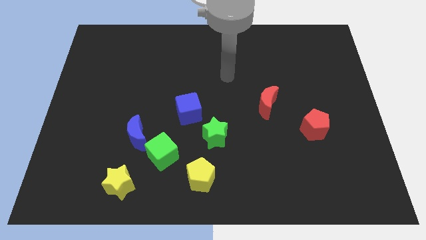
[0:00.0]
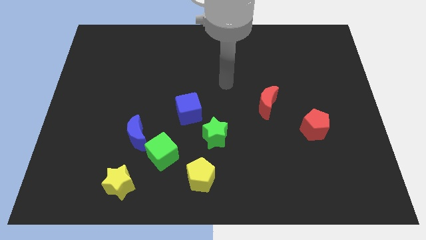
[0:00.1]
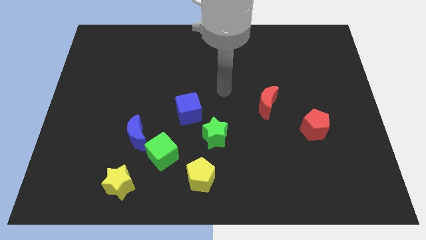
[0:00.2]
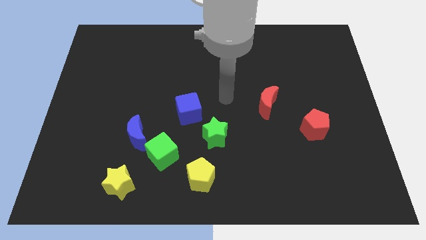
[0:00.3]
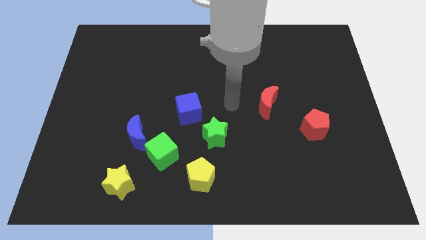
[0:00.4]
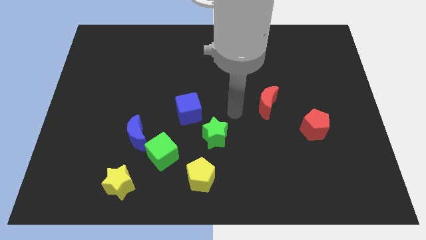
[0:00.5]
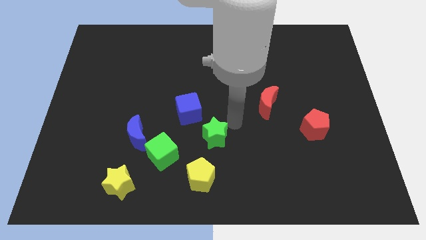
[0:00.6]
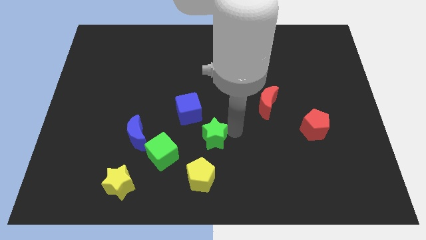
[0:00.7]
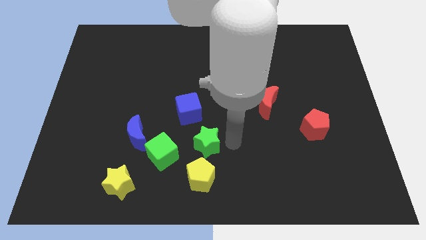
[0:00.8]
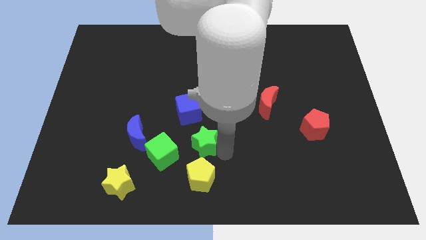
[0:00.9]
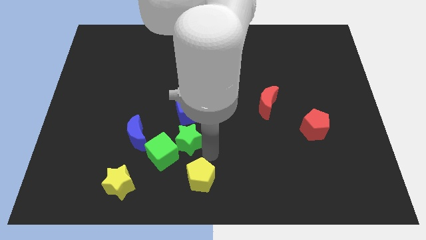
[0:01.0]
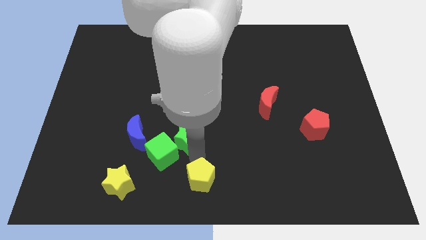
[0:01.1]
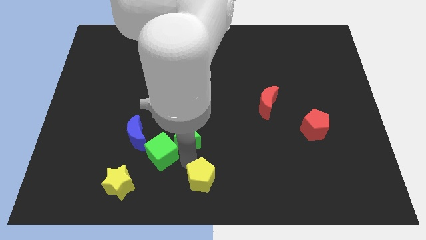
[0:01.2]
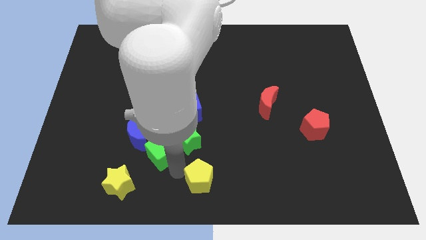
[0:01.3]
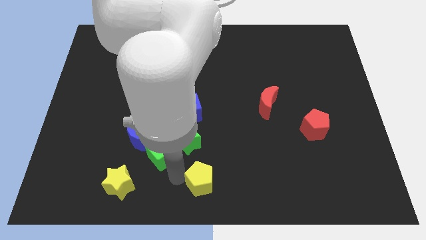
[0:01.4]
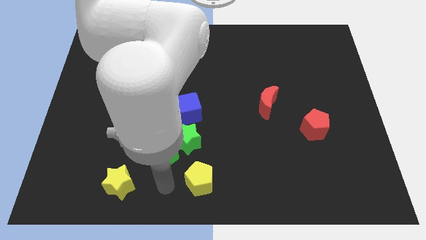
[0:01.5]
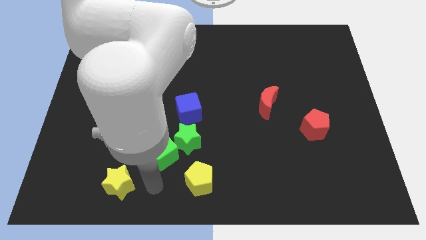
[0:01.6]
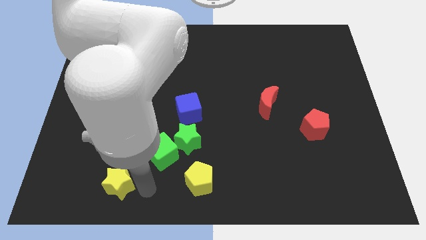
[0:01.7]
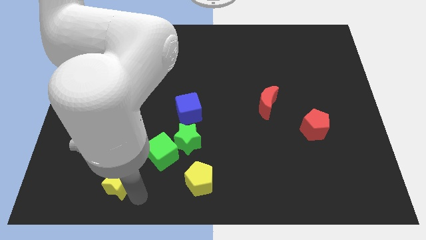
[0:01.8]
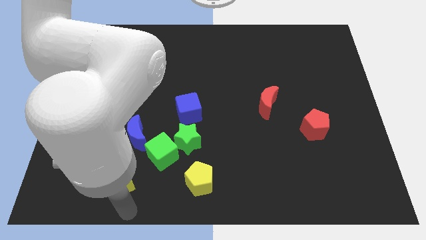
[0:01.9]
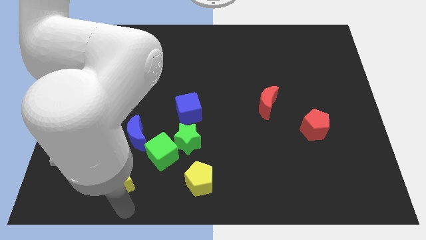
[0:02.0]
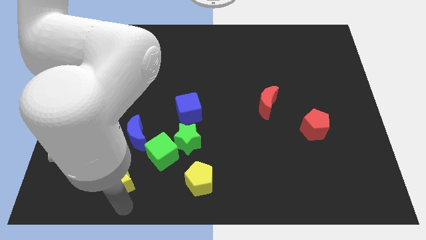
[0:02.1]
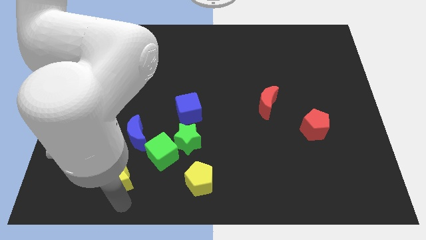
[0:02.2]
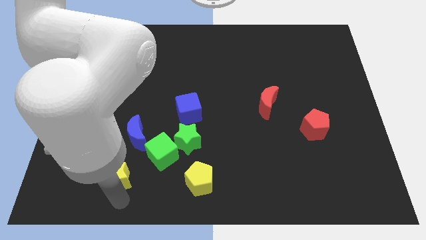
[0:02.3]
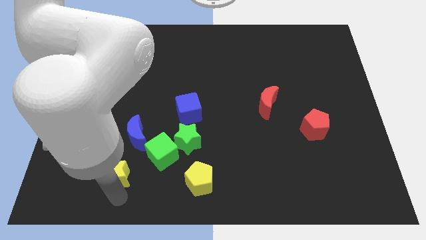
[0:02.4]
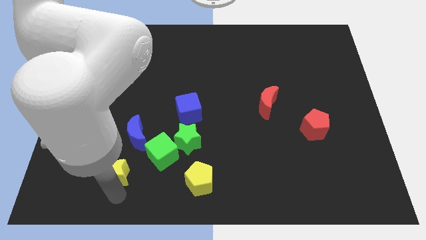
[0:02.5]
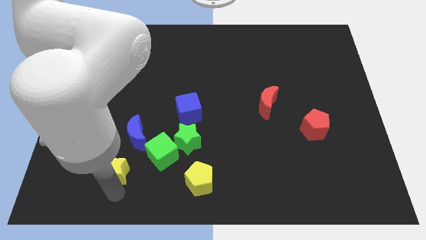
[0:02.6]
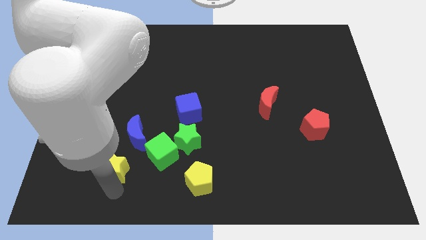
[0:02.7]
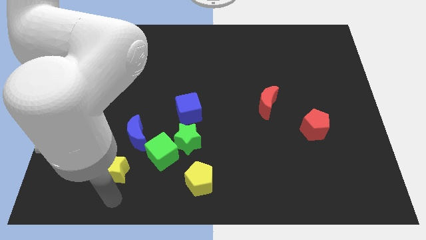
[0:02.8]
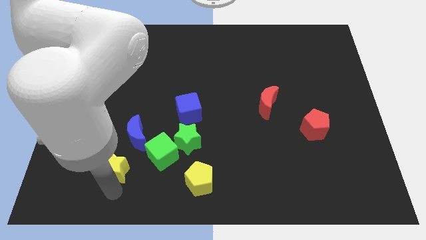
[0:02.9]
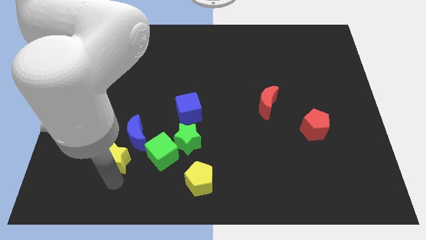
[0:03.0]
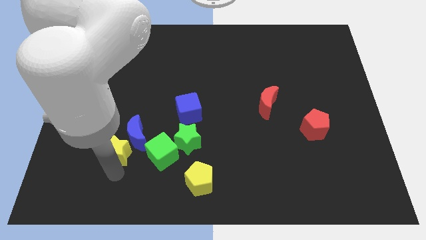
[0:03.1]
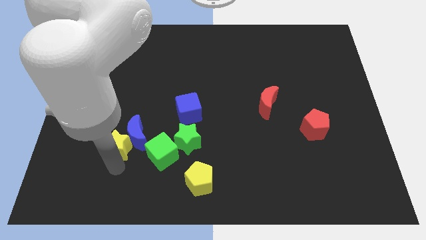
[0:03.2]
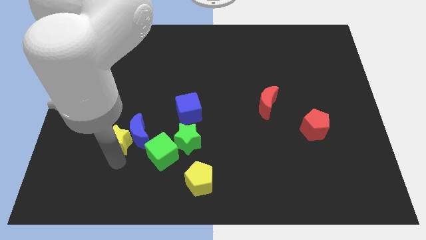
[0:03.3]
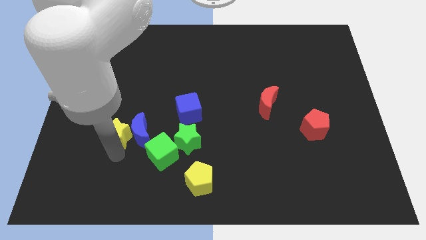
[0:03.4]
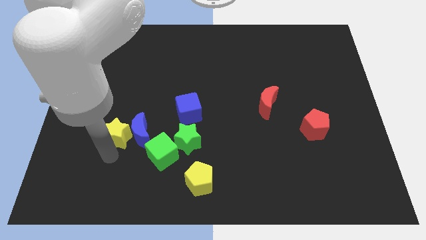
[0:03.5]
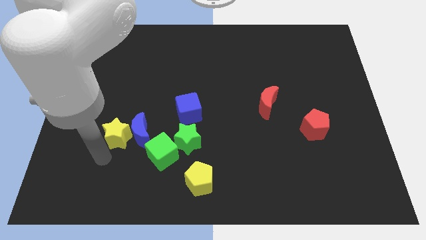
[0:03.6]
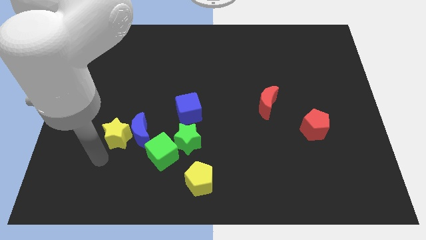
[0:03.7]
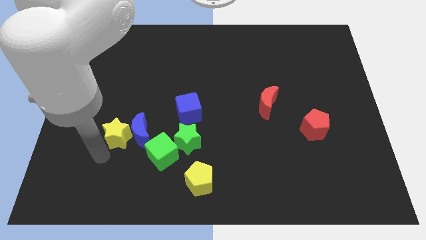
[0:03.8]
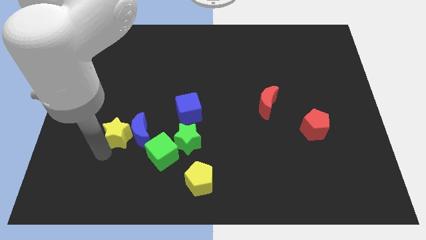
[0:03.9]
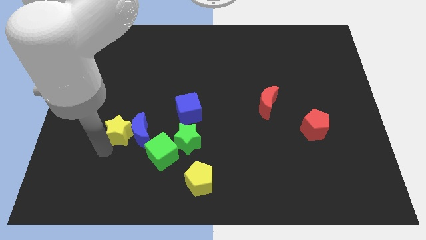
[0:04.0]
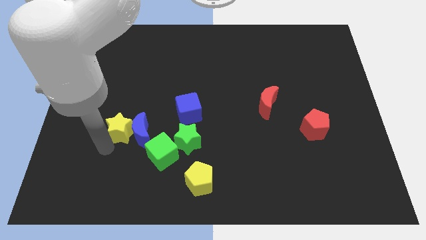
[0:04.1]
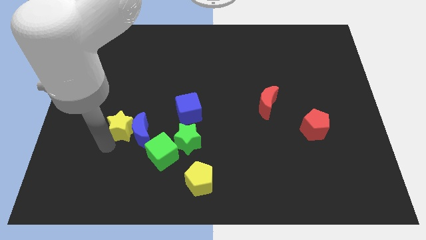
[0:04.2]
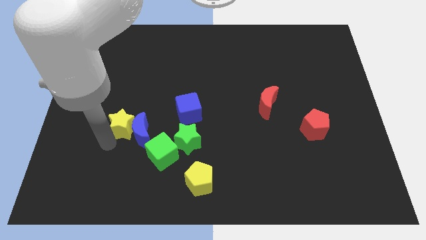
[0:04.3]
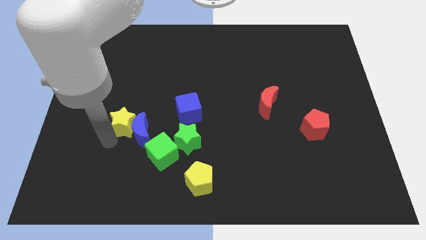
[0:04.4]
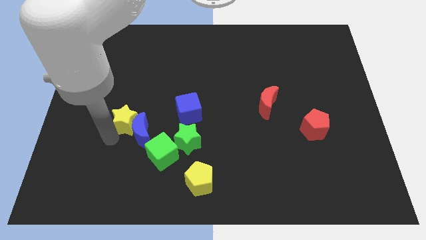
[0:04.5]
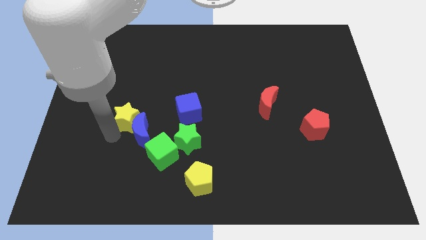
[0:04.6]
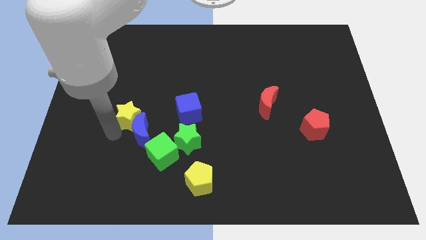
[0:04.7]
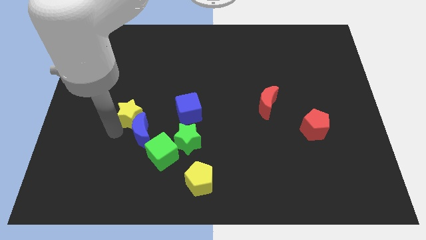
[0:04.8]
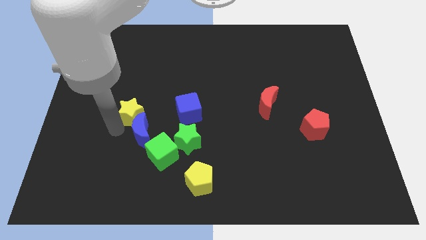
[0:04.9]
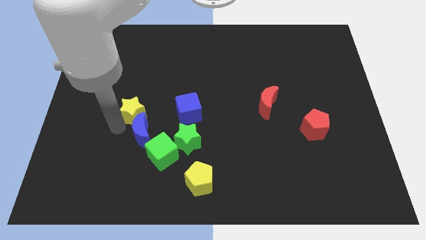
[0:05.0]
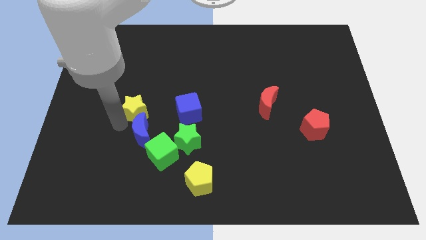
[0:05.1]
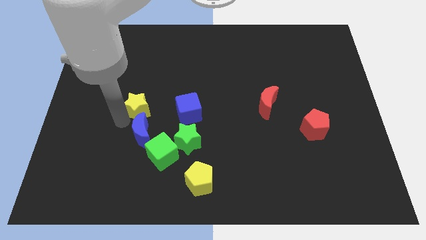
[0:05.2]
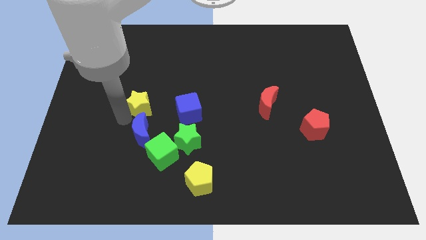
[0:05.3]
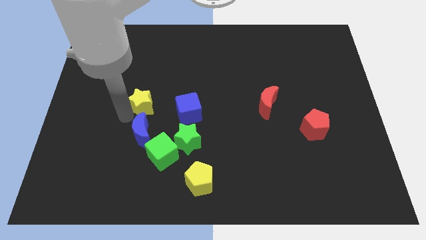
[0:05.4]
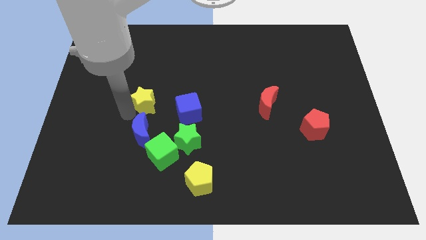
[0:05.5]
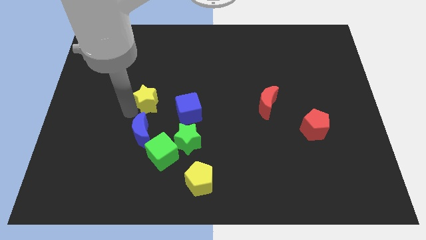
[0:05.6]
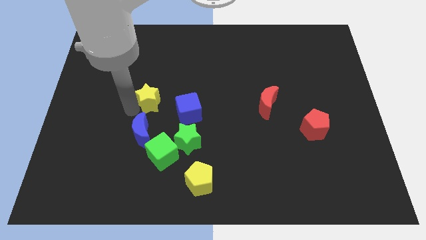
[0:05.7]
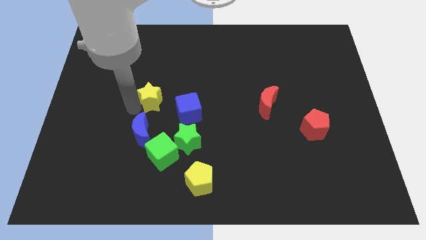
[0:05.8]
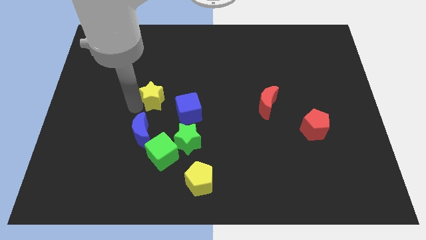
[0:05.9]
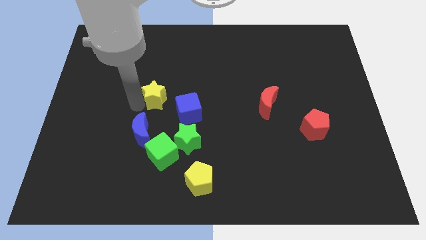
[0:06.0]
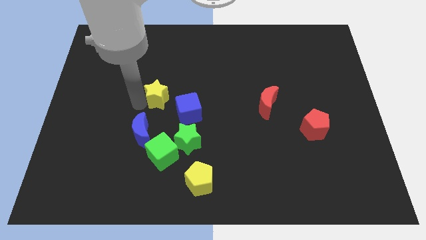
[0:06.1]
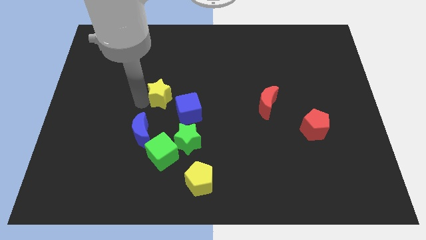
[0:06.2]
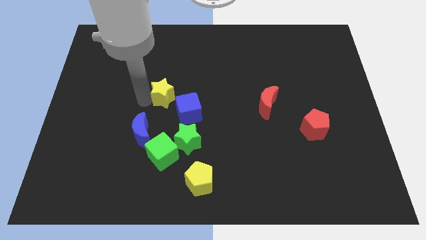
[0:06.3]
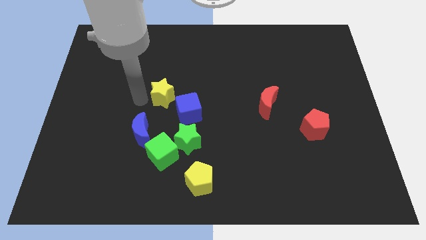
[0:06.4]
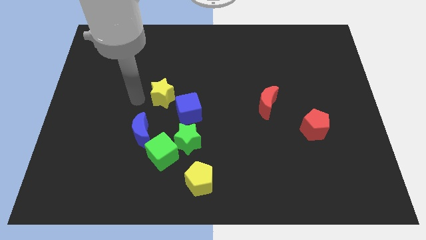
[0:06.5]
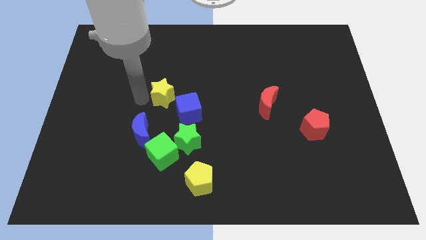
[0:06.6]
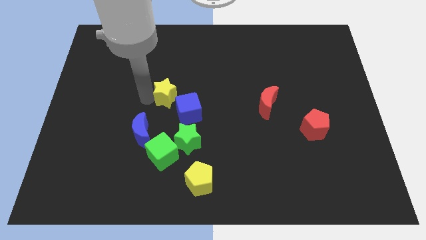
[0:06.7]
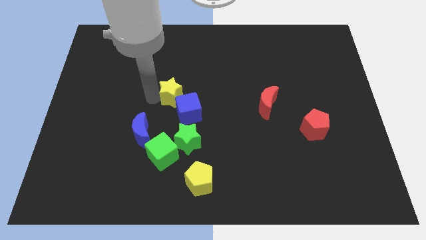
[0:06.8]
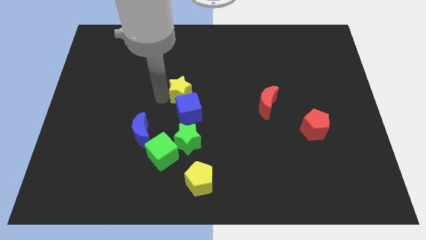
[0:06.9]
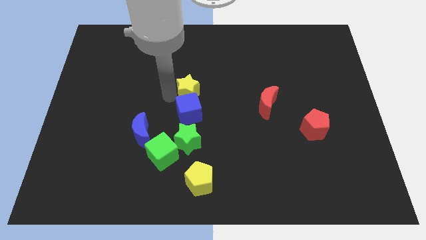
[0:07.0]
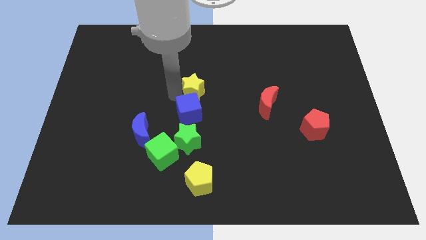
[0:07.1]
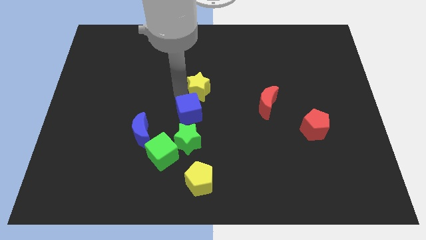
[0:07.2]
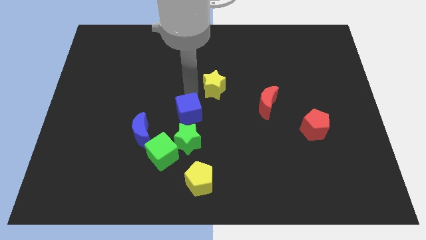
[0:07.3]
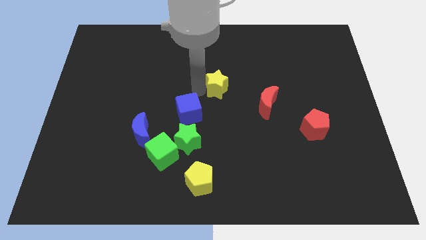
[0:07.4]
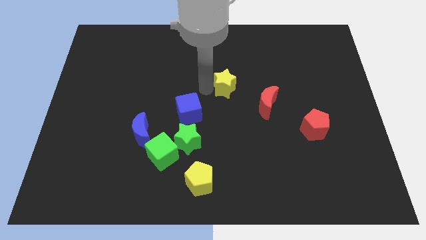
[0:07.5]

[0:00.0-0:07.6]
put the yellow star diagonally up and to the left of the red moon
